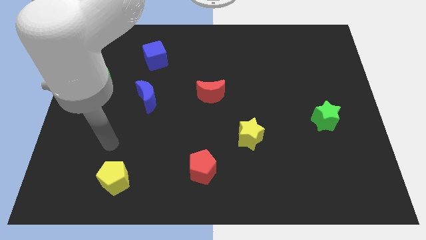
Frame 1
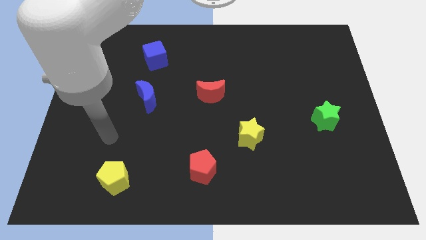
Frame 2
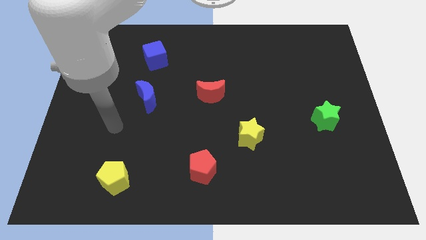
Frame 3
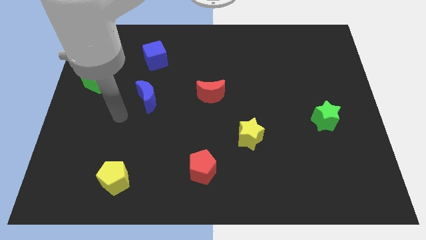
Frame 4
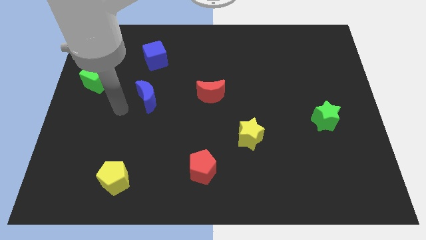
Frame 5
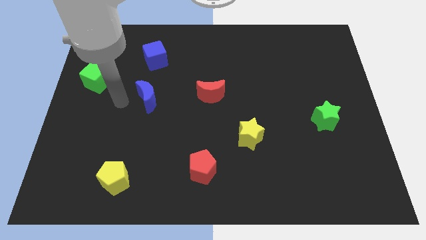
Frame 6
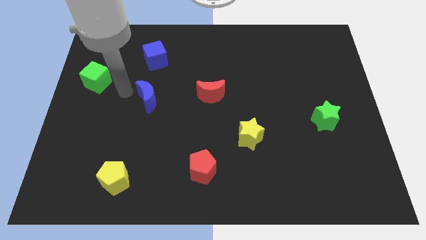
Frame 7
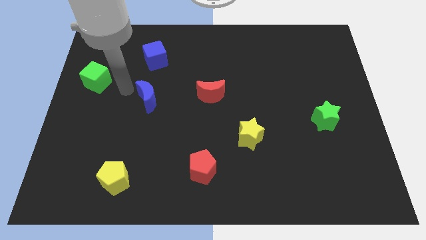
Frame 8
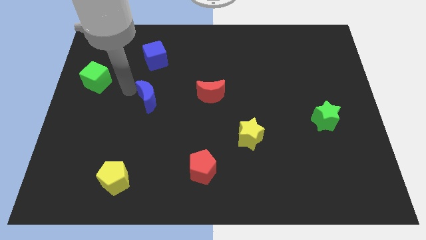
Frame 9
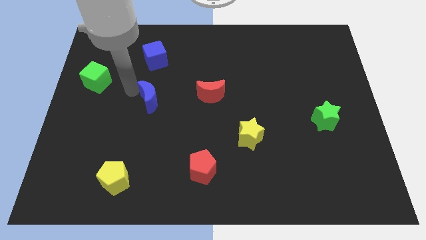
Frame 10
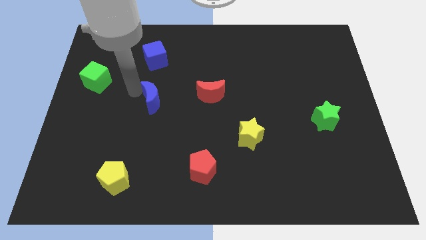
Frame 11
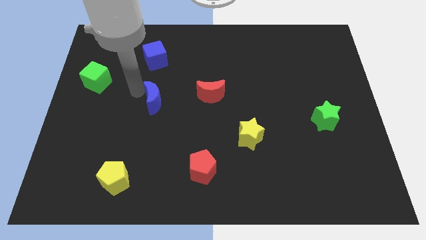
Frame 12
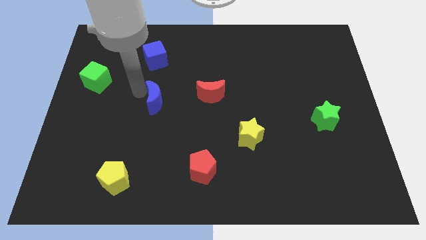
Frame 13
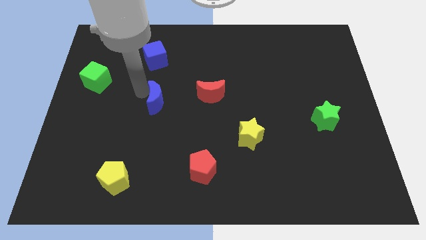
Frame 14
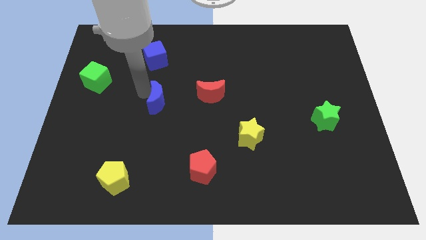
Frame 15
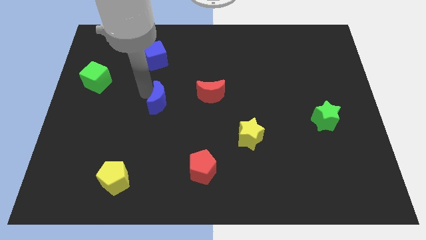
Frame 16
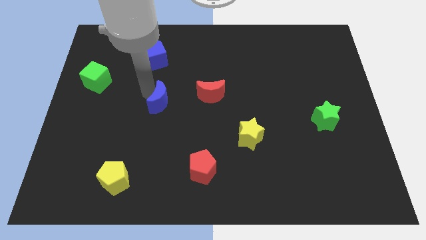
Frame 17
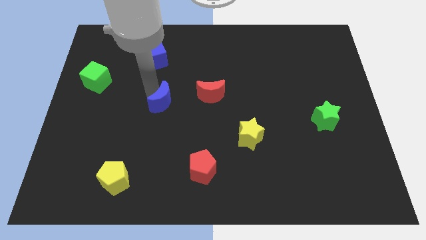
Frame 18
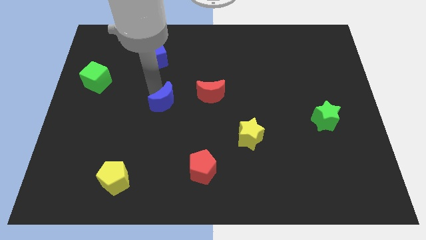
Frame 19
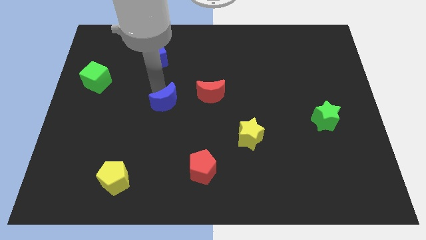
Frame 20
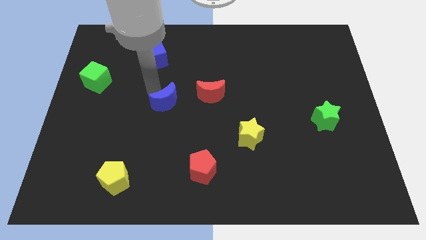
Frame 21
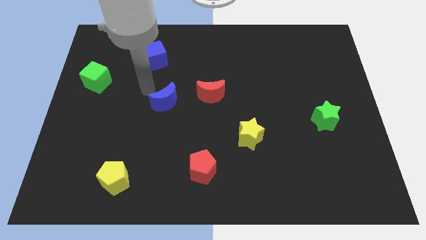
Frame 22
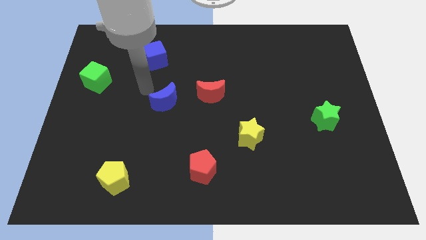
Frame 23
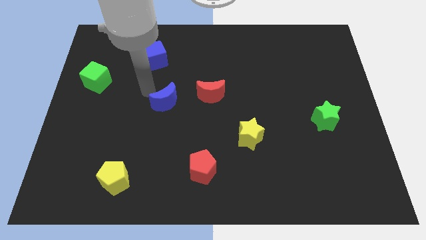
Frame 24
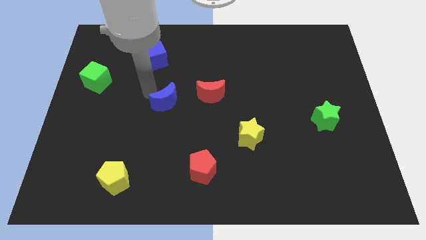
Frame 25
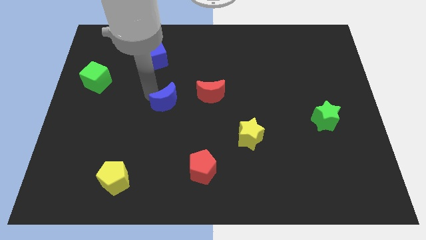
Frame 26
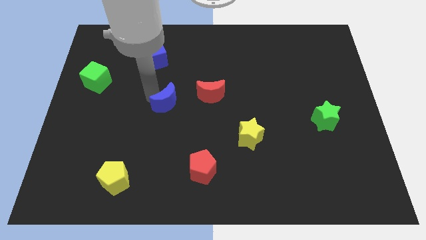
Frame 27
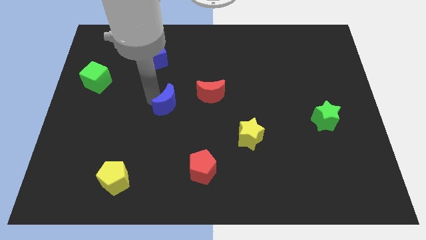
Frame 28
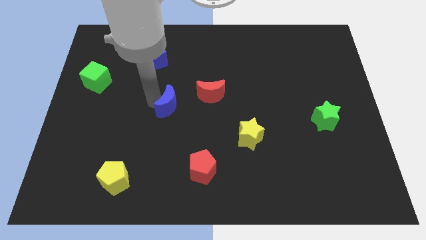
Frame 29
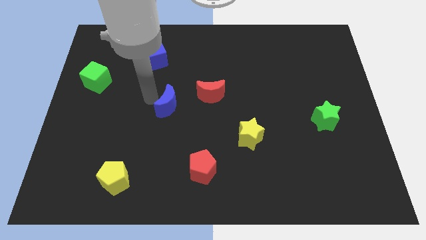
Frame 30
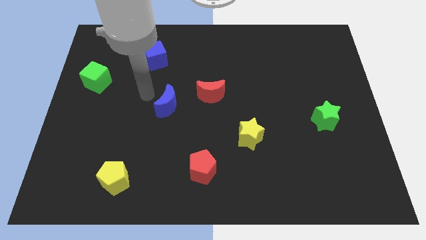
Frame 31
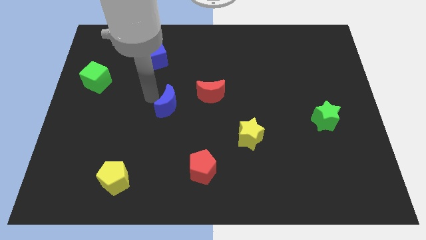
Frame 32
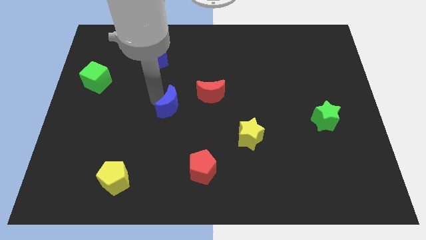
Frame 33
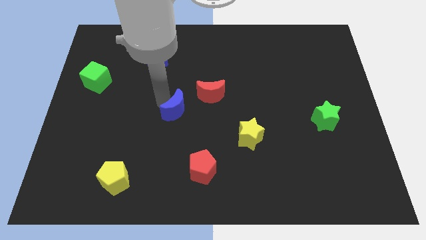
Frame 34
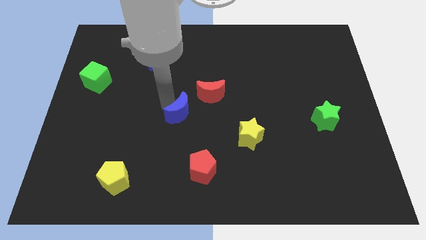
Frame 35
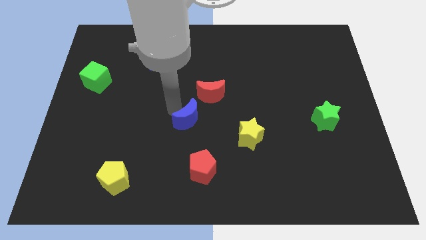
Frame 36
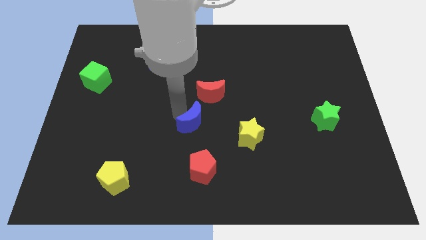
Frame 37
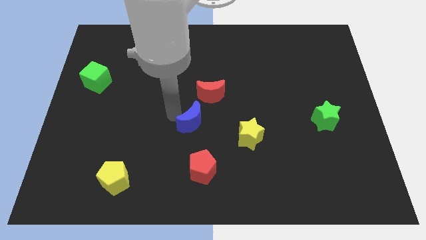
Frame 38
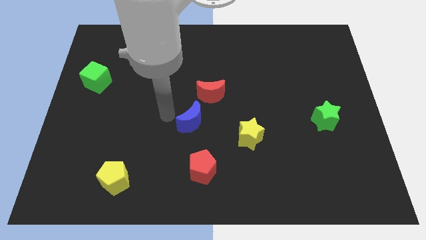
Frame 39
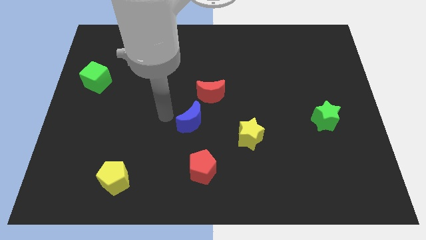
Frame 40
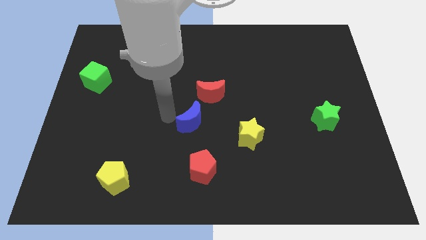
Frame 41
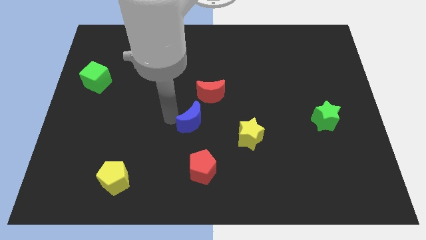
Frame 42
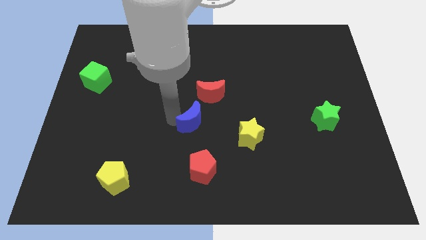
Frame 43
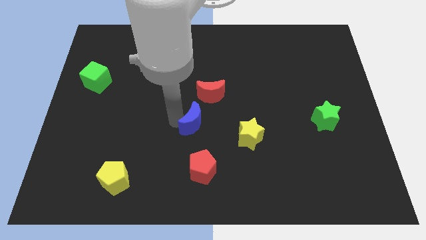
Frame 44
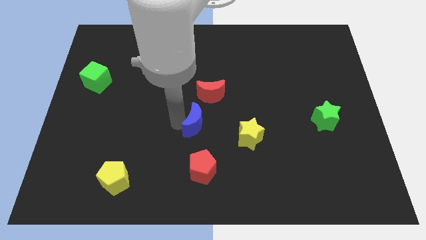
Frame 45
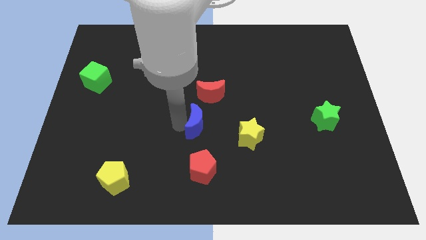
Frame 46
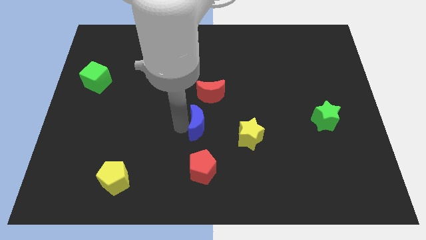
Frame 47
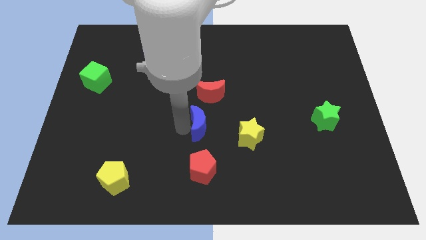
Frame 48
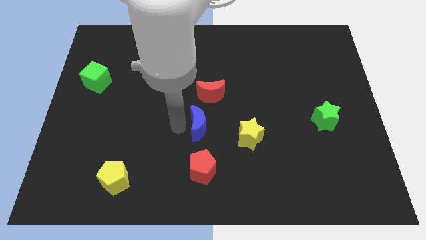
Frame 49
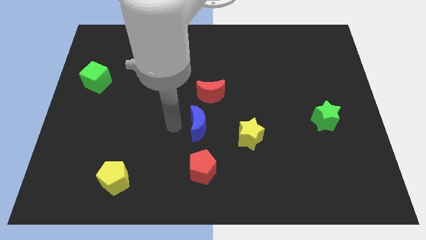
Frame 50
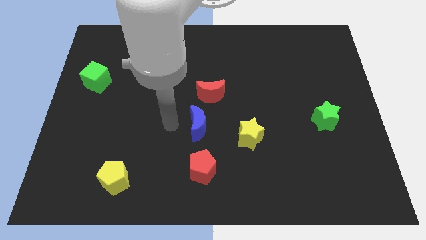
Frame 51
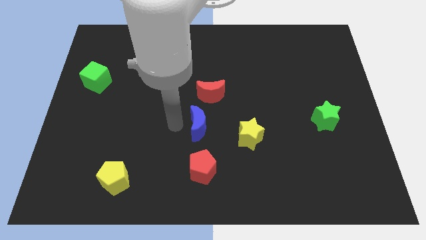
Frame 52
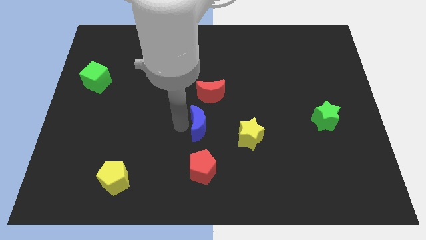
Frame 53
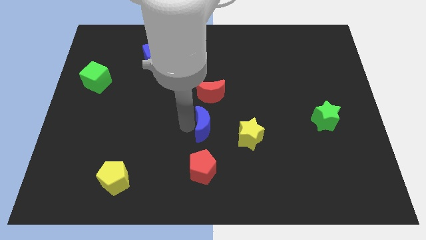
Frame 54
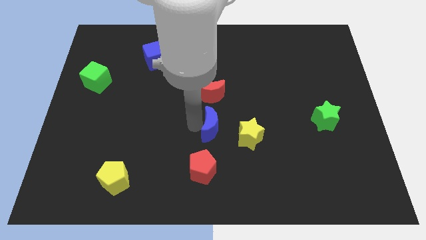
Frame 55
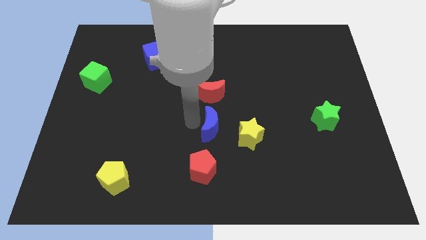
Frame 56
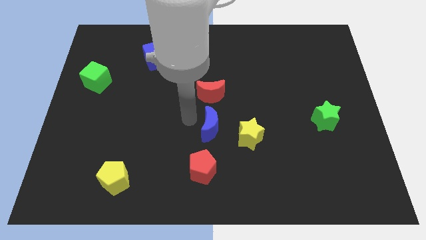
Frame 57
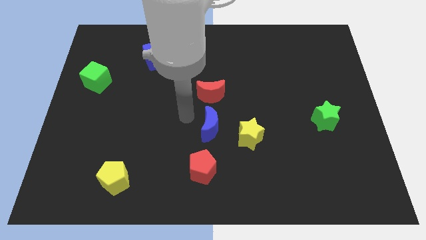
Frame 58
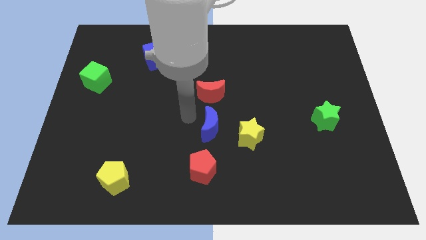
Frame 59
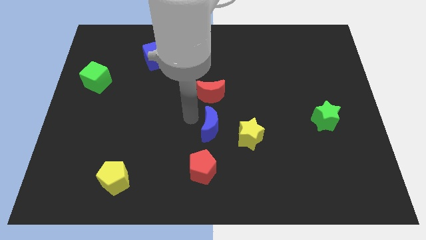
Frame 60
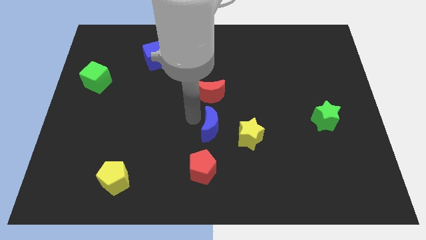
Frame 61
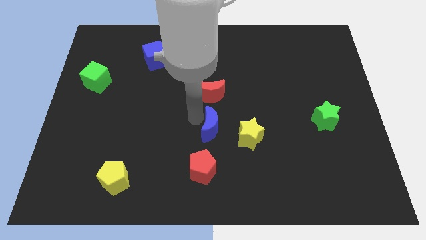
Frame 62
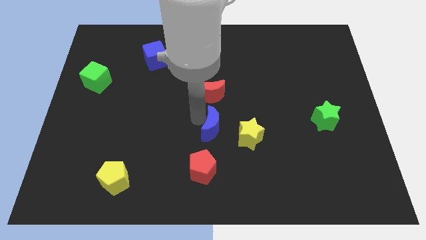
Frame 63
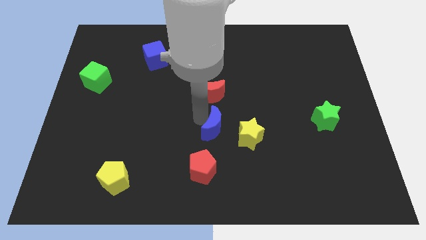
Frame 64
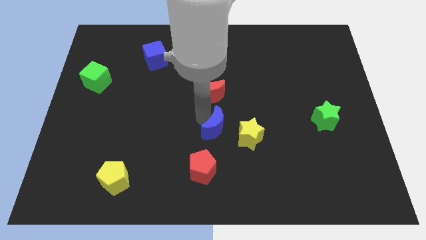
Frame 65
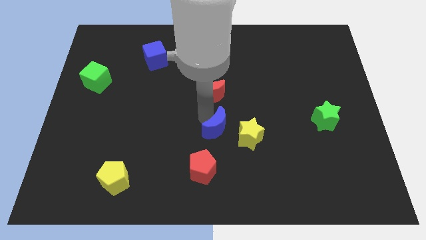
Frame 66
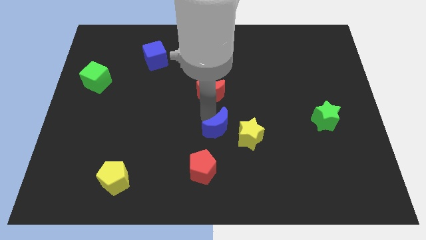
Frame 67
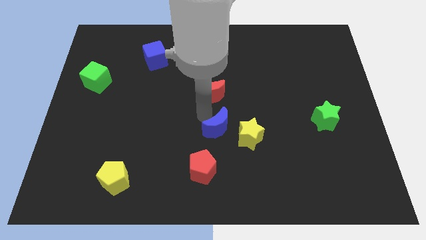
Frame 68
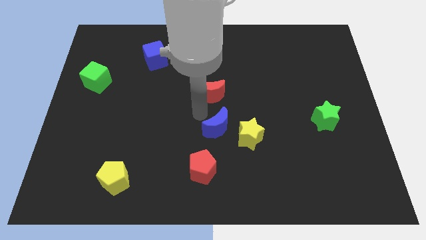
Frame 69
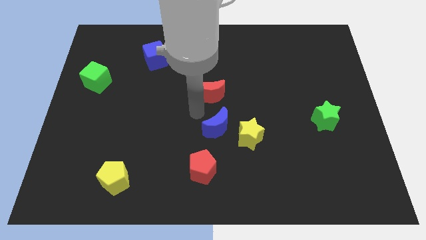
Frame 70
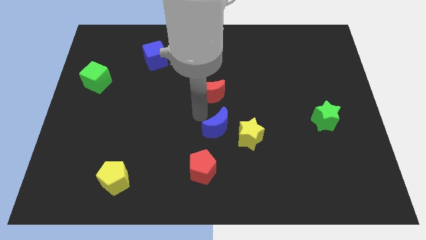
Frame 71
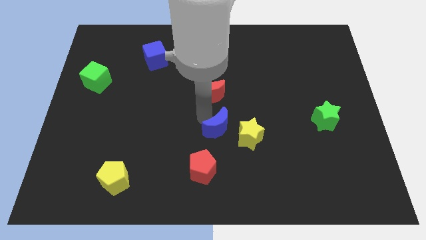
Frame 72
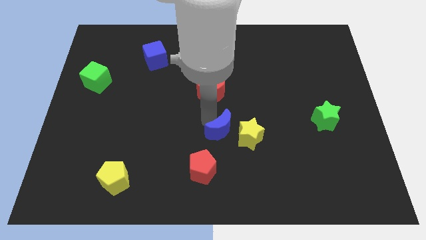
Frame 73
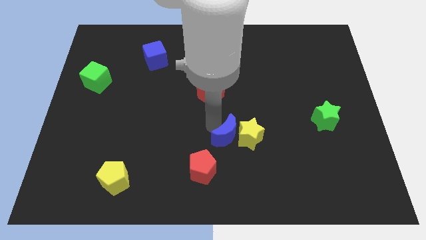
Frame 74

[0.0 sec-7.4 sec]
push the blue moon next to the yellow star
